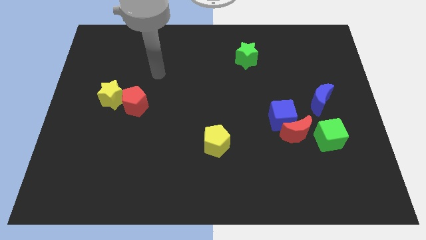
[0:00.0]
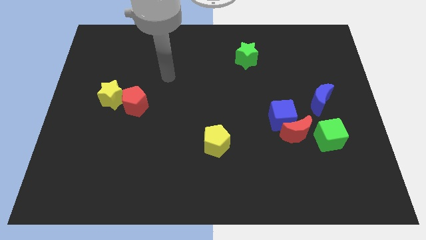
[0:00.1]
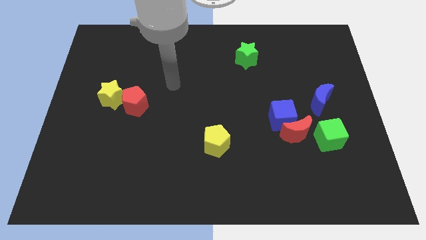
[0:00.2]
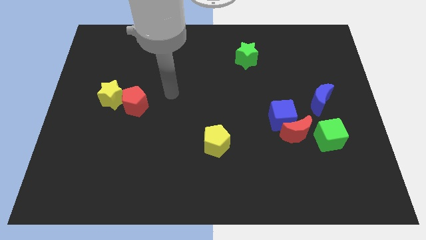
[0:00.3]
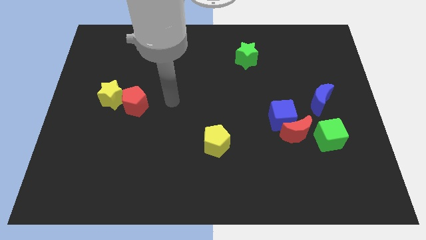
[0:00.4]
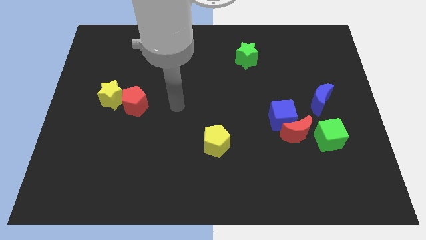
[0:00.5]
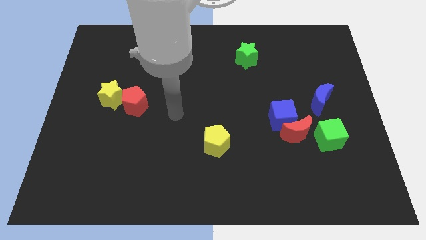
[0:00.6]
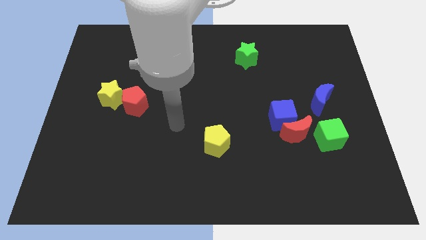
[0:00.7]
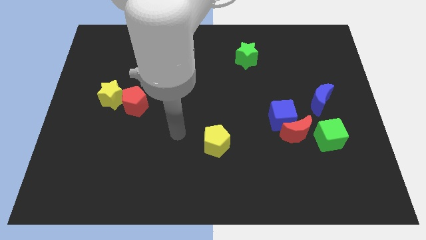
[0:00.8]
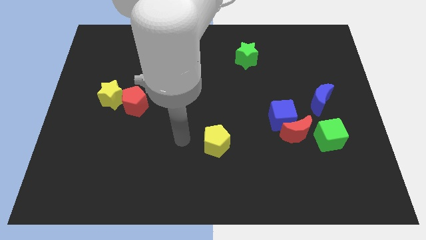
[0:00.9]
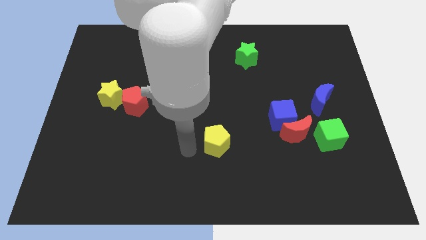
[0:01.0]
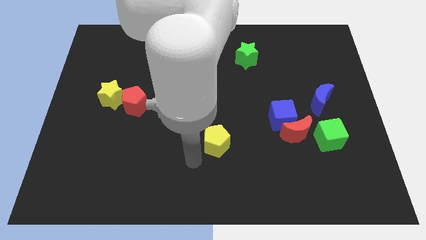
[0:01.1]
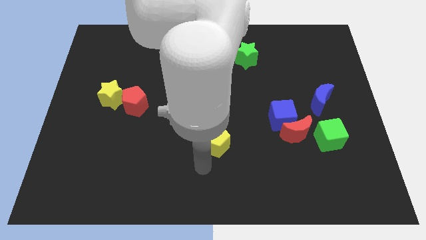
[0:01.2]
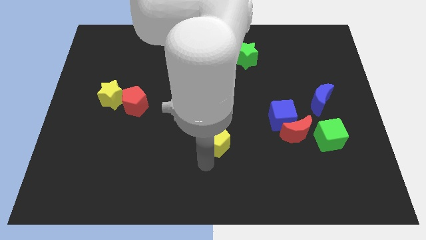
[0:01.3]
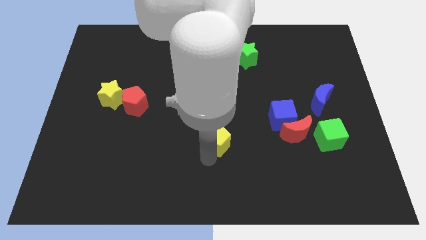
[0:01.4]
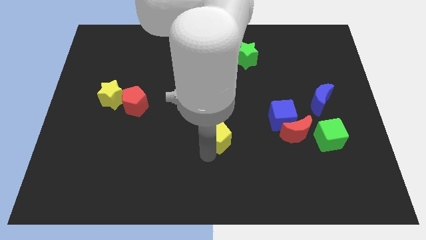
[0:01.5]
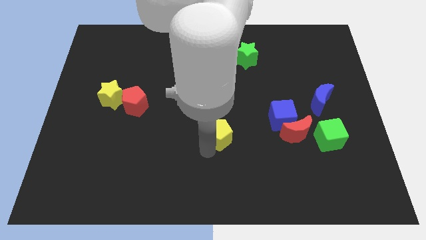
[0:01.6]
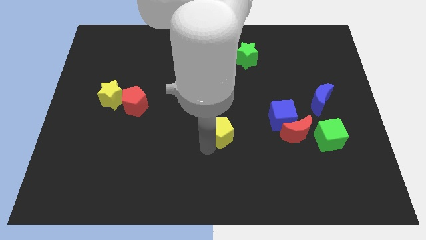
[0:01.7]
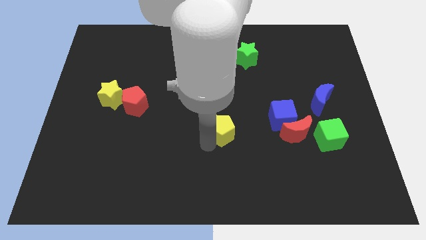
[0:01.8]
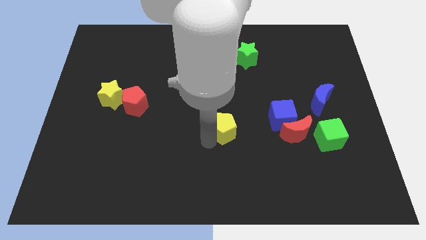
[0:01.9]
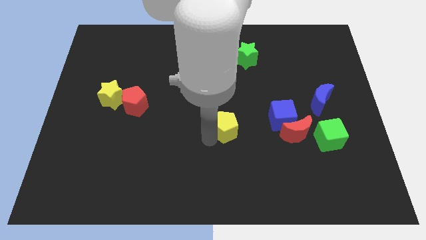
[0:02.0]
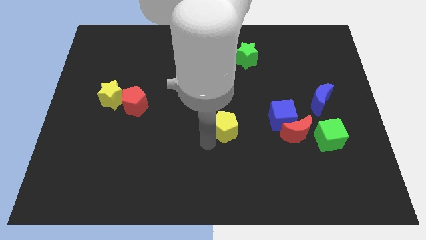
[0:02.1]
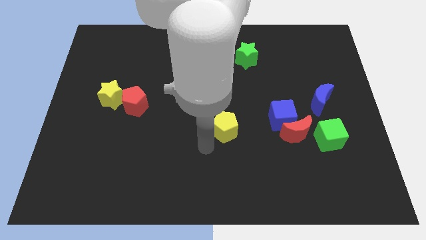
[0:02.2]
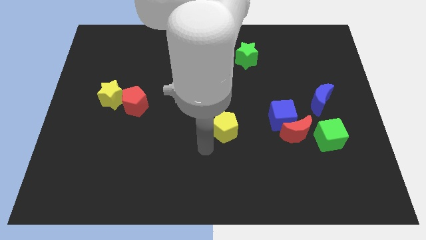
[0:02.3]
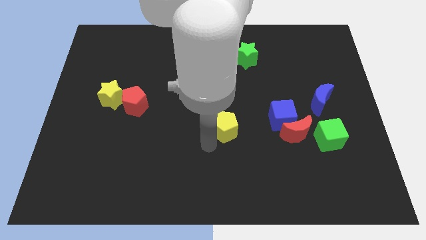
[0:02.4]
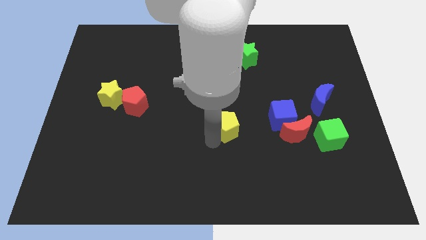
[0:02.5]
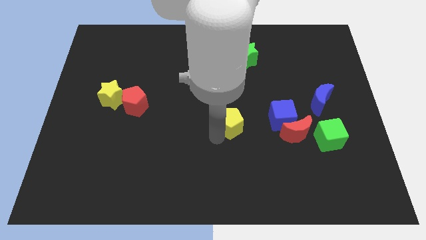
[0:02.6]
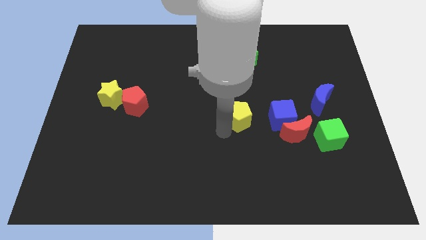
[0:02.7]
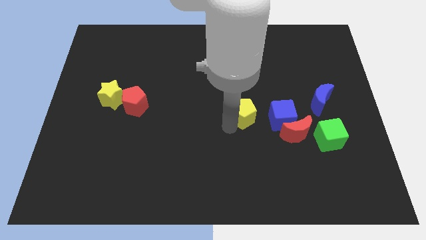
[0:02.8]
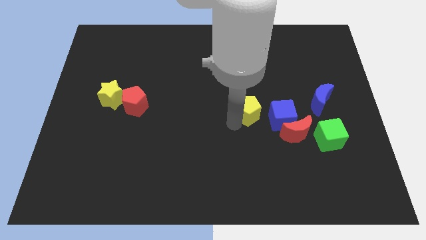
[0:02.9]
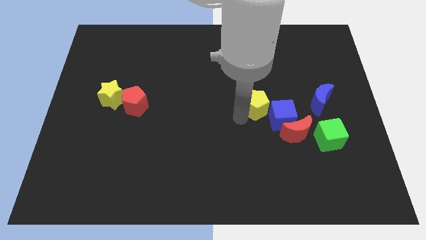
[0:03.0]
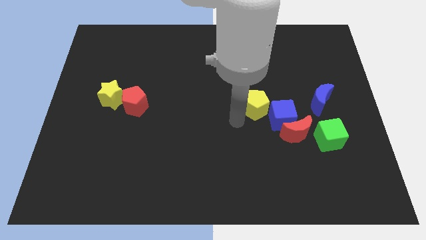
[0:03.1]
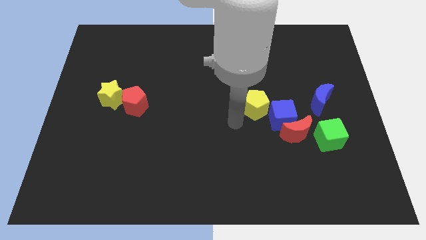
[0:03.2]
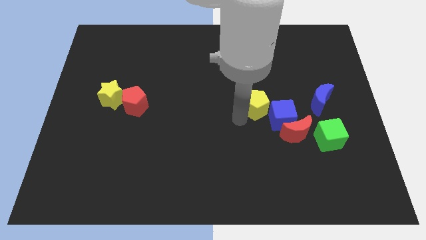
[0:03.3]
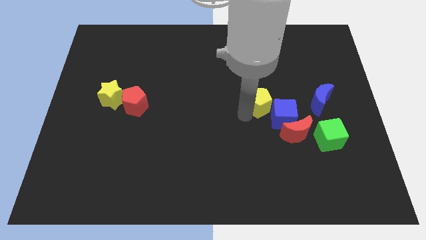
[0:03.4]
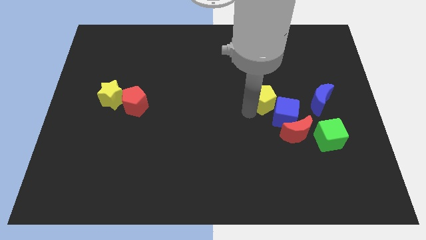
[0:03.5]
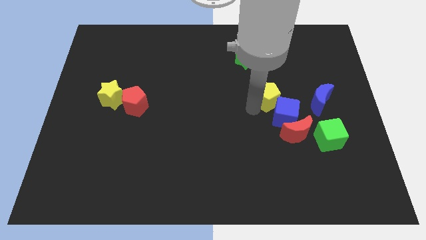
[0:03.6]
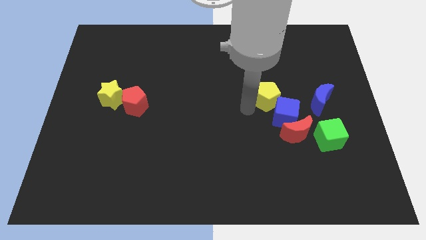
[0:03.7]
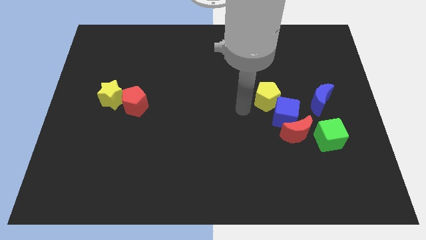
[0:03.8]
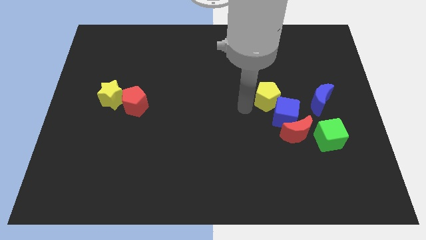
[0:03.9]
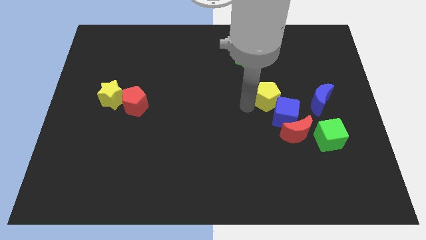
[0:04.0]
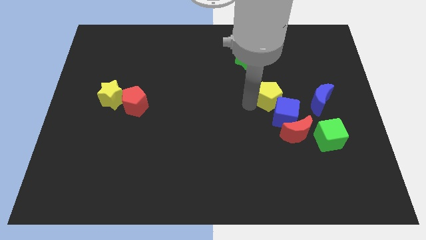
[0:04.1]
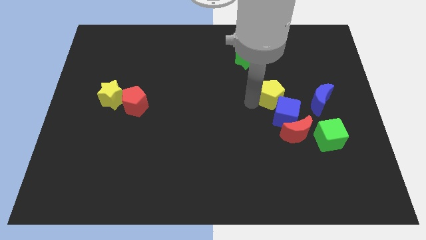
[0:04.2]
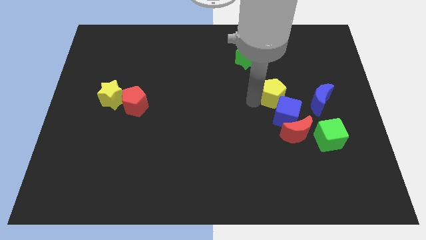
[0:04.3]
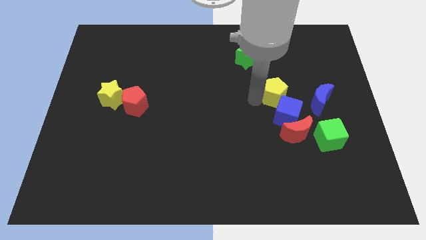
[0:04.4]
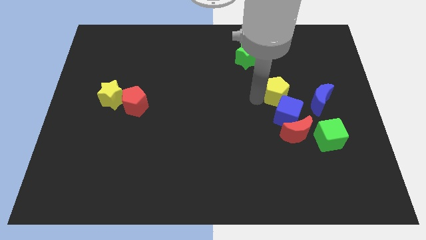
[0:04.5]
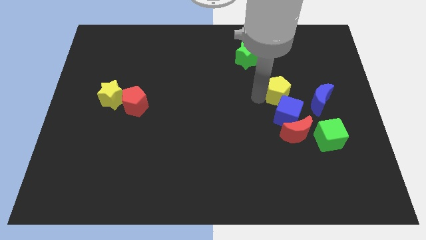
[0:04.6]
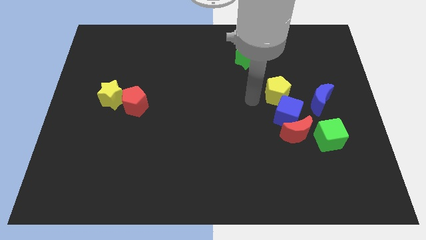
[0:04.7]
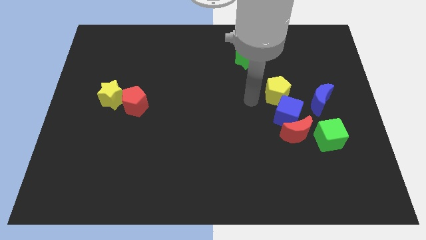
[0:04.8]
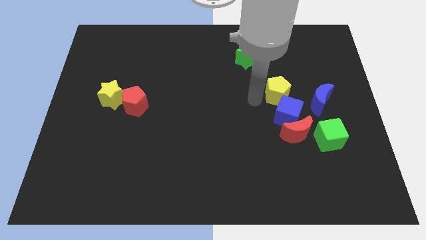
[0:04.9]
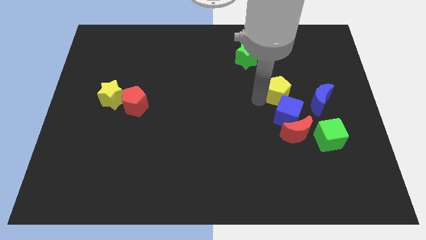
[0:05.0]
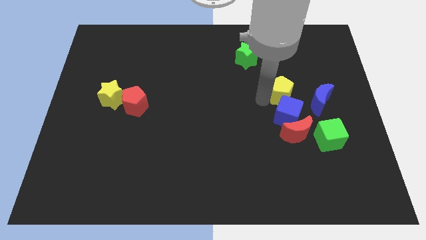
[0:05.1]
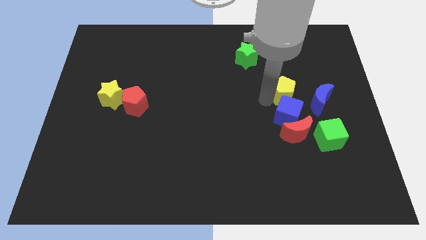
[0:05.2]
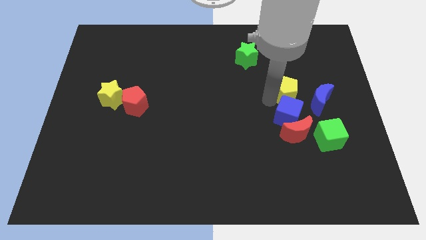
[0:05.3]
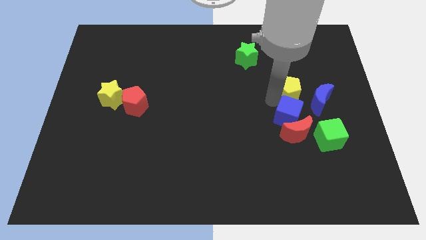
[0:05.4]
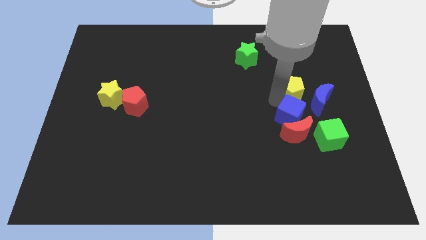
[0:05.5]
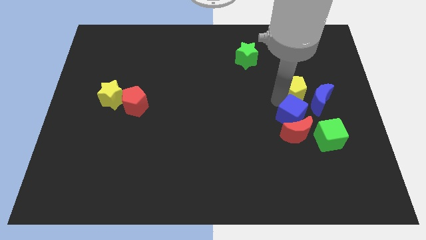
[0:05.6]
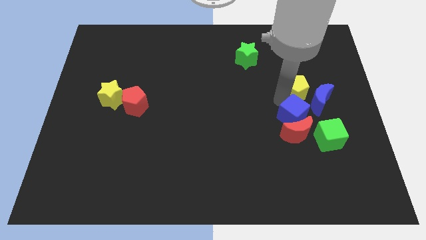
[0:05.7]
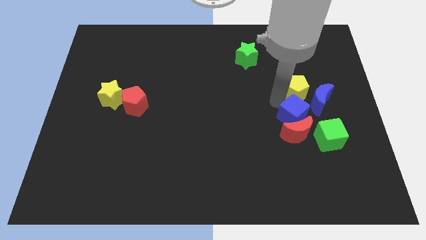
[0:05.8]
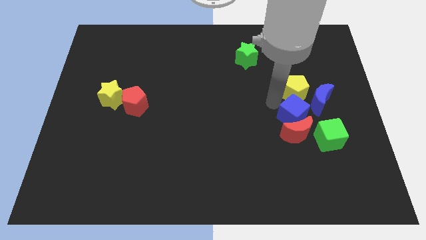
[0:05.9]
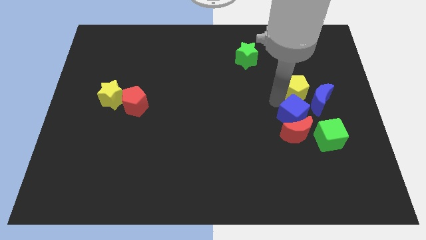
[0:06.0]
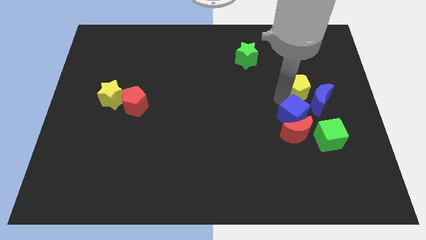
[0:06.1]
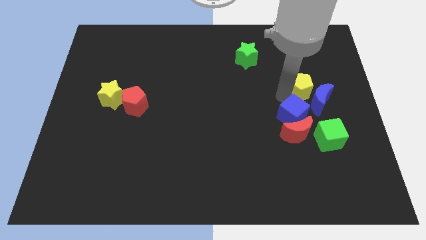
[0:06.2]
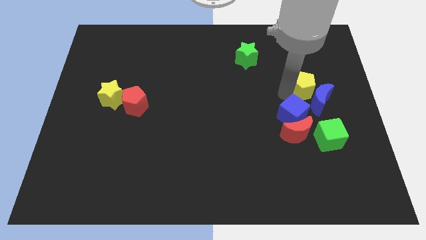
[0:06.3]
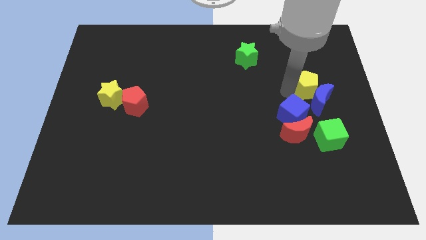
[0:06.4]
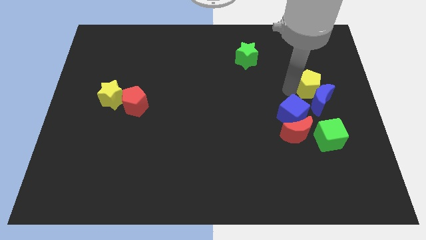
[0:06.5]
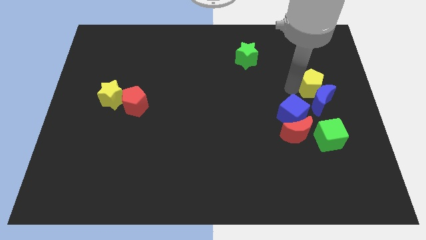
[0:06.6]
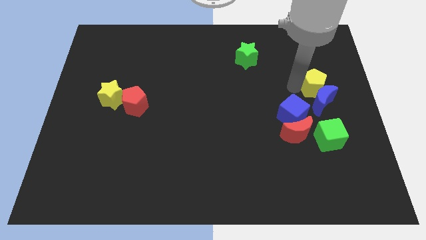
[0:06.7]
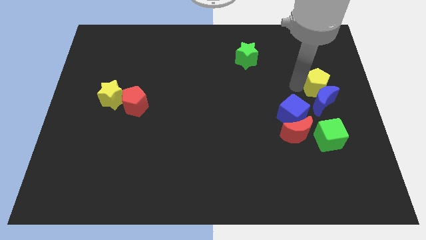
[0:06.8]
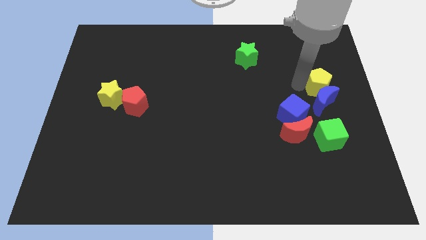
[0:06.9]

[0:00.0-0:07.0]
slide the yellow pentagon to the right side
